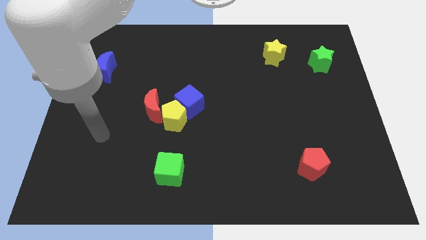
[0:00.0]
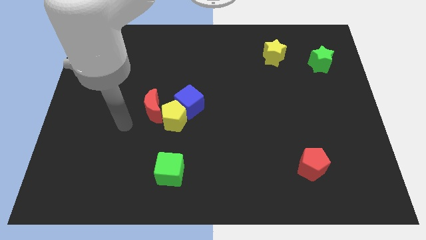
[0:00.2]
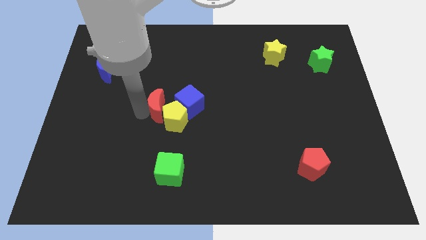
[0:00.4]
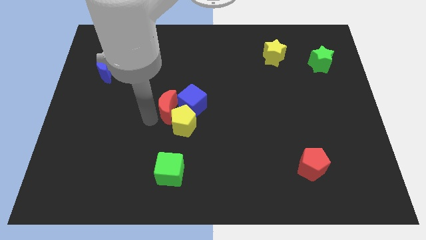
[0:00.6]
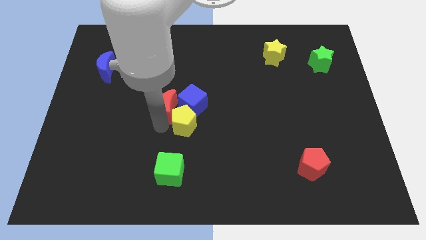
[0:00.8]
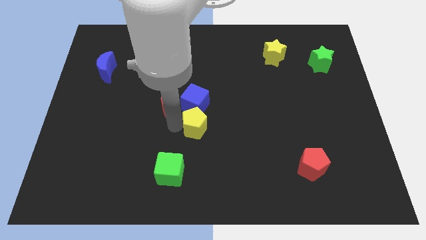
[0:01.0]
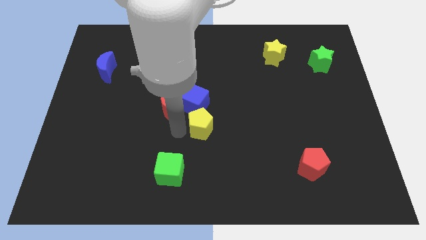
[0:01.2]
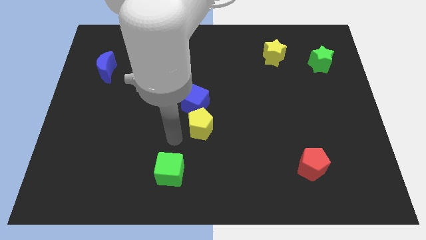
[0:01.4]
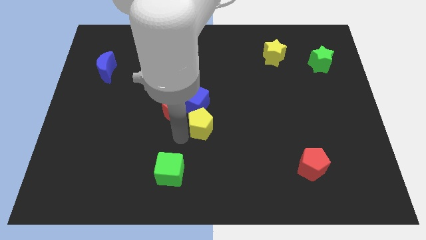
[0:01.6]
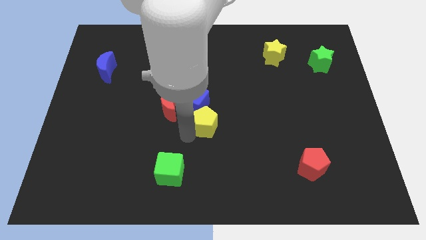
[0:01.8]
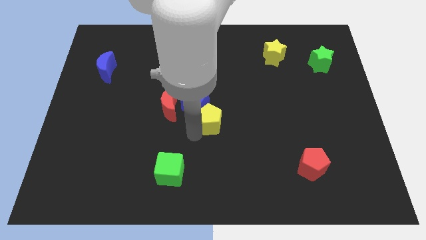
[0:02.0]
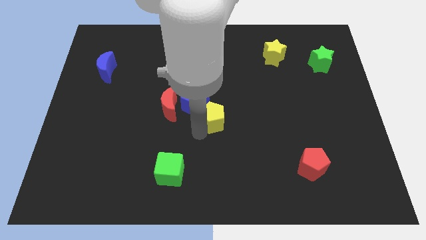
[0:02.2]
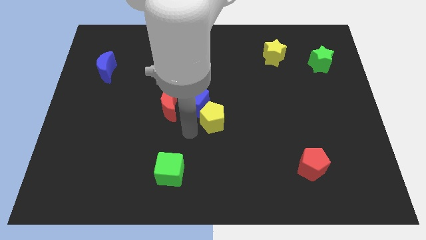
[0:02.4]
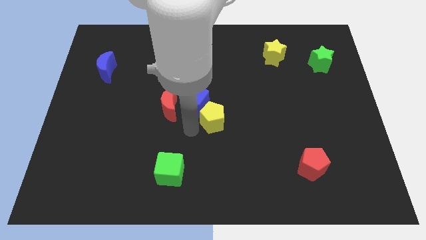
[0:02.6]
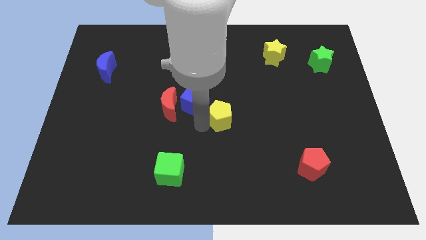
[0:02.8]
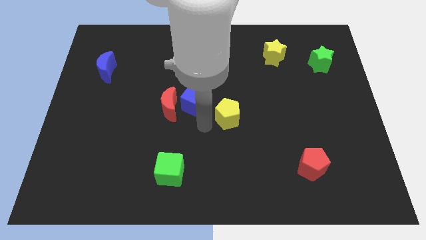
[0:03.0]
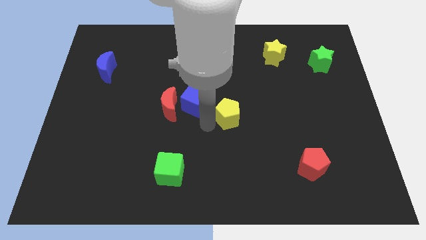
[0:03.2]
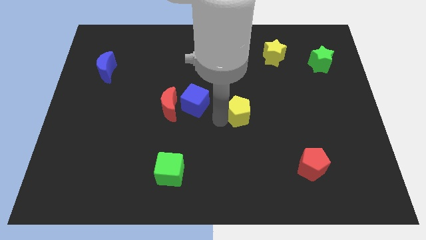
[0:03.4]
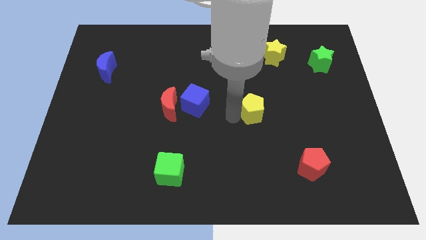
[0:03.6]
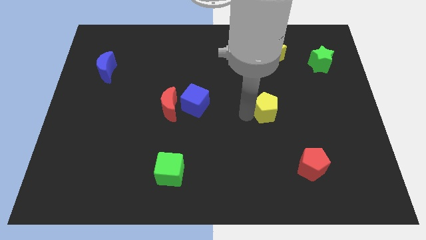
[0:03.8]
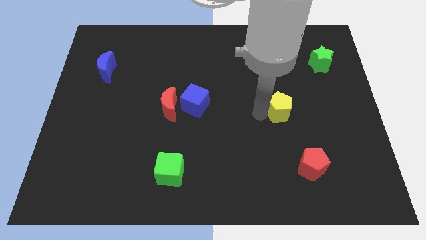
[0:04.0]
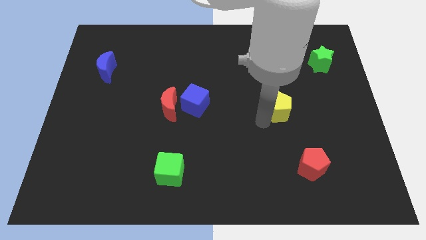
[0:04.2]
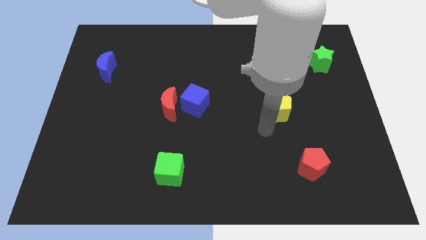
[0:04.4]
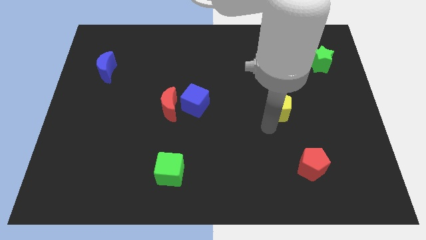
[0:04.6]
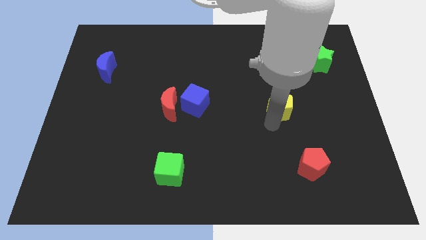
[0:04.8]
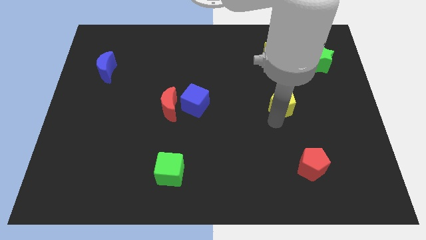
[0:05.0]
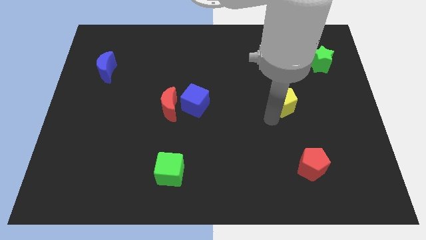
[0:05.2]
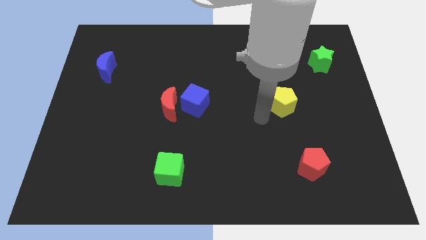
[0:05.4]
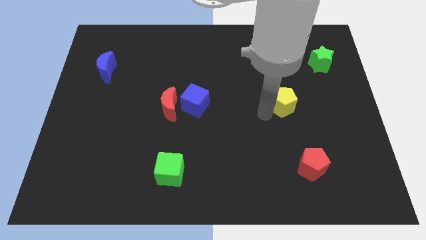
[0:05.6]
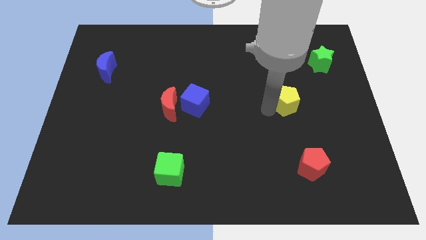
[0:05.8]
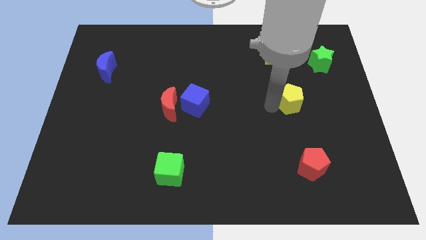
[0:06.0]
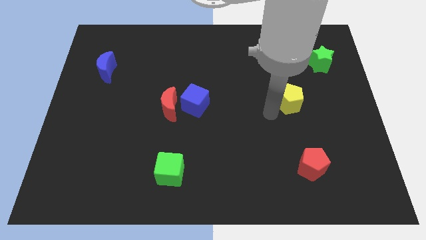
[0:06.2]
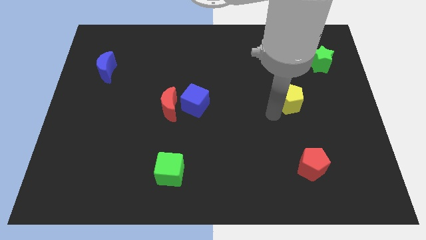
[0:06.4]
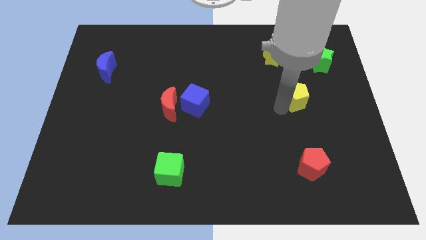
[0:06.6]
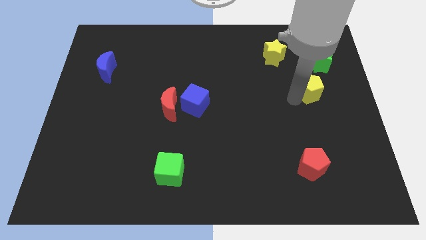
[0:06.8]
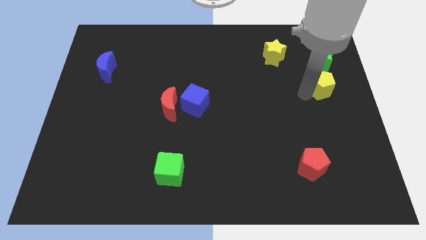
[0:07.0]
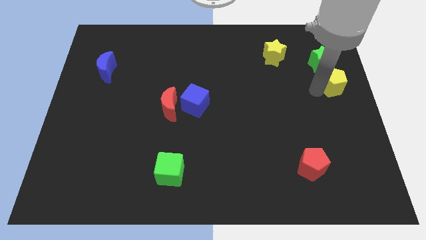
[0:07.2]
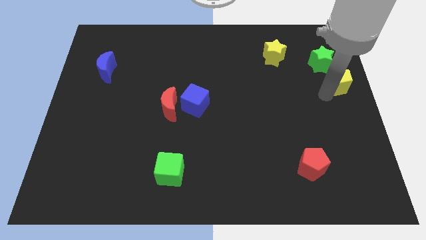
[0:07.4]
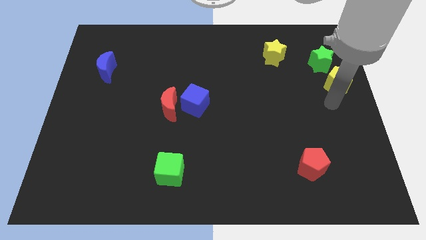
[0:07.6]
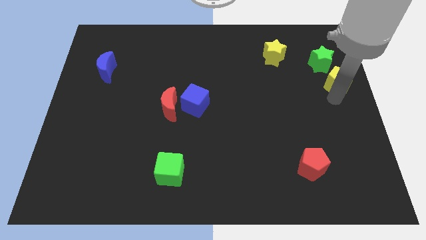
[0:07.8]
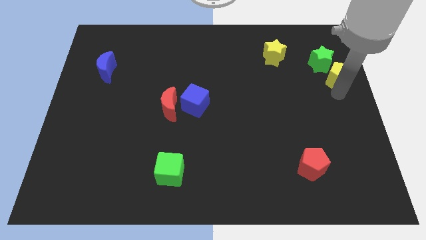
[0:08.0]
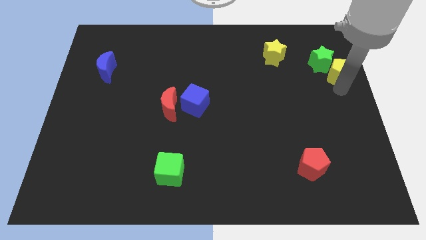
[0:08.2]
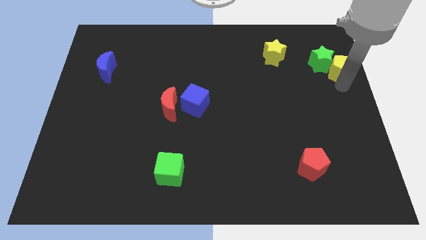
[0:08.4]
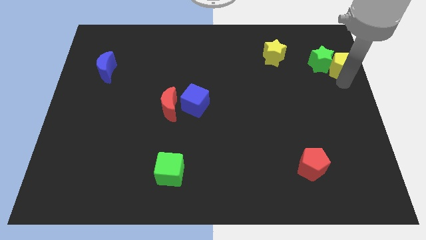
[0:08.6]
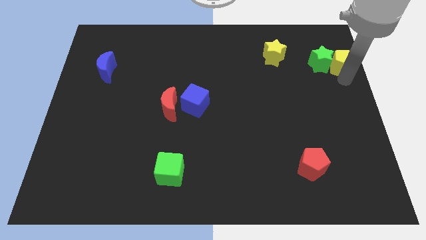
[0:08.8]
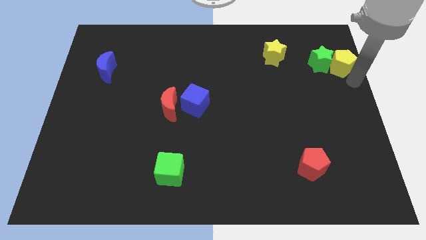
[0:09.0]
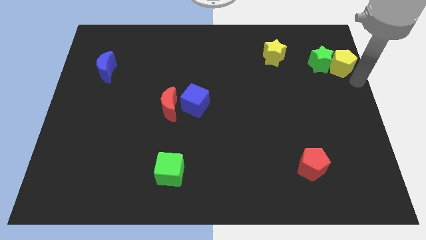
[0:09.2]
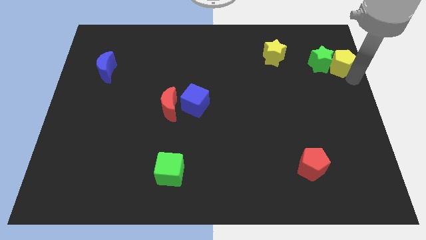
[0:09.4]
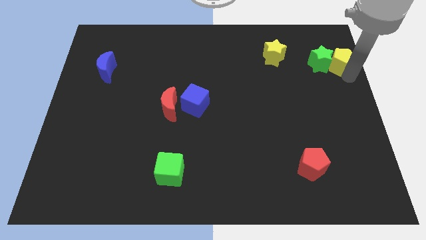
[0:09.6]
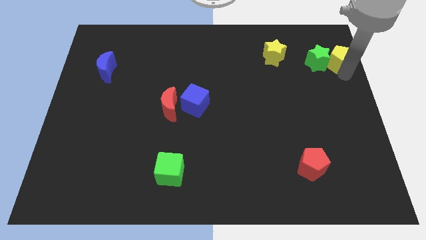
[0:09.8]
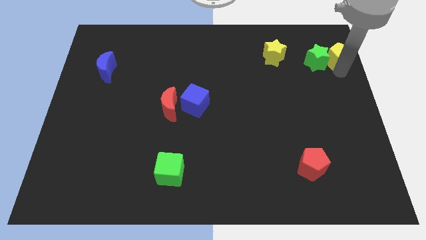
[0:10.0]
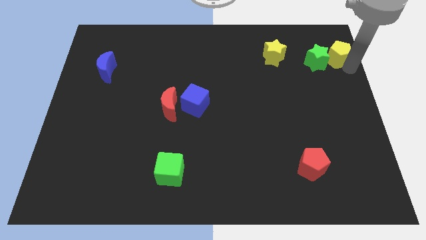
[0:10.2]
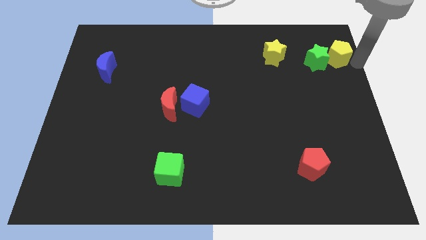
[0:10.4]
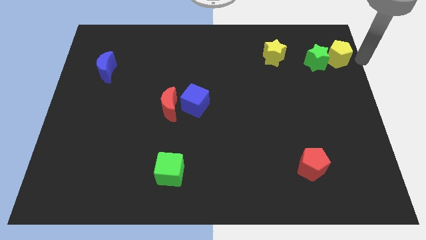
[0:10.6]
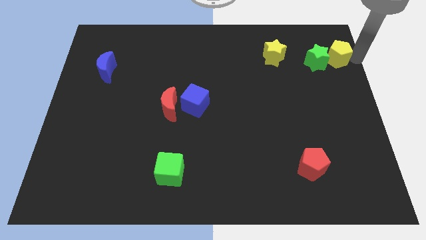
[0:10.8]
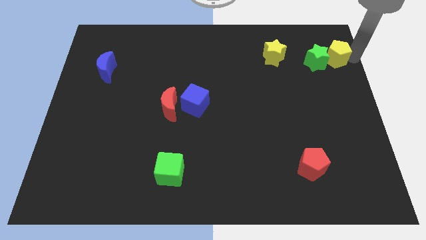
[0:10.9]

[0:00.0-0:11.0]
move the yellow pentagon to the right of the yellow star

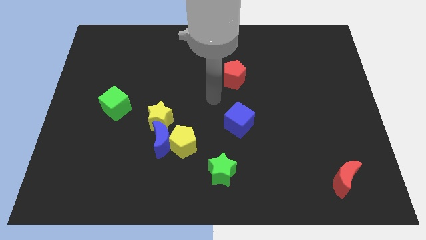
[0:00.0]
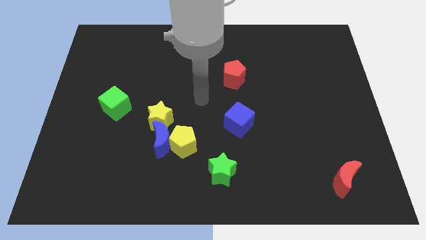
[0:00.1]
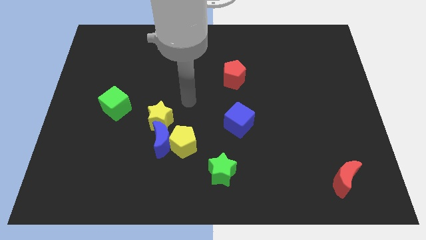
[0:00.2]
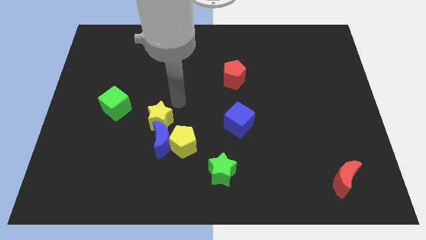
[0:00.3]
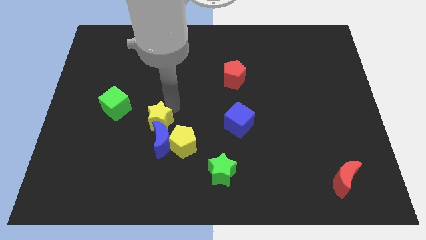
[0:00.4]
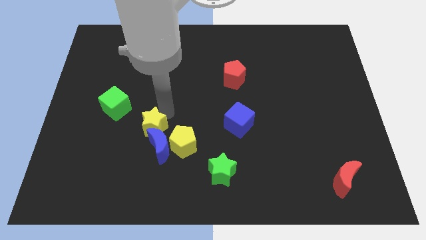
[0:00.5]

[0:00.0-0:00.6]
move the yellow star just left of the yellow pentagon

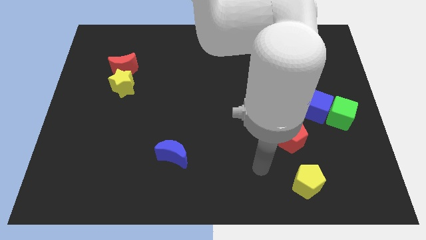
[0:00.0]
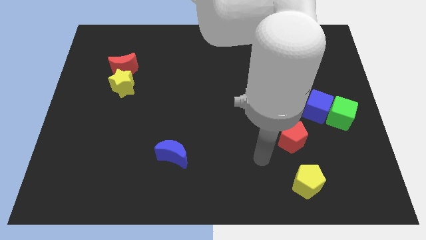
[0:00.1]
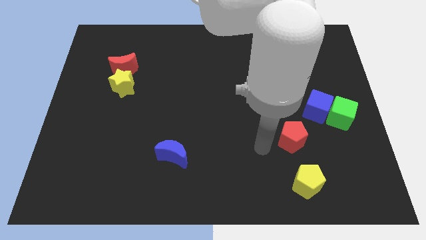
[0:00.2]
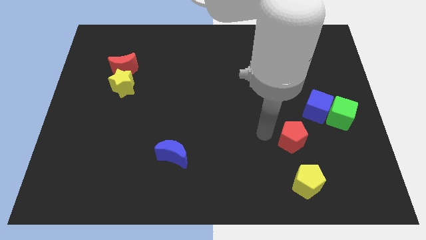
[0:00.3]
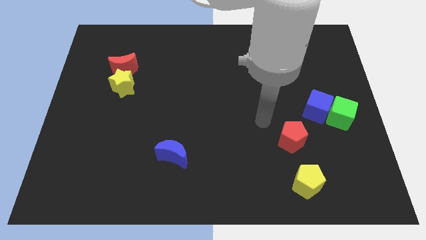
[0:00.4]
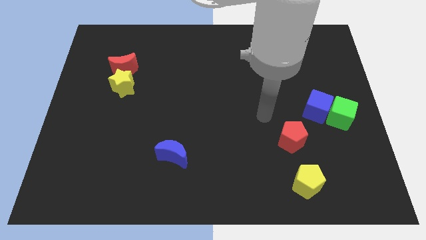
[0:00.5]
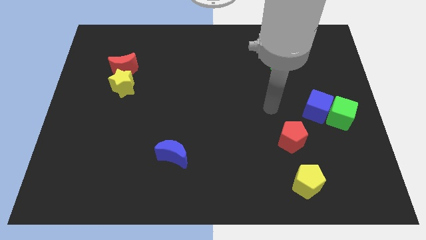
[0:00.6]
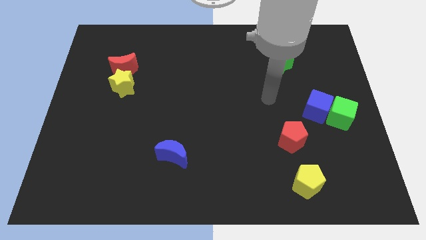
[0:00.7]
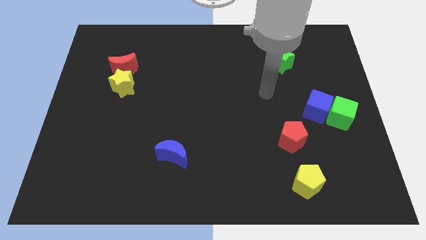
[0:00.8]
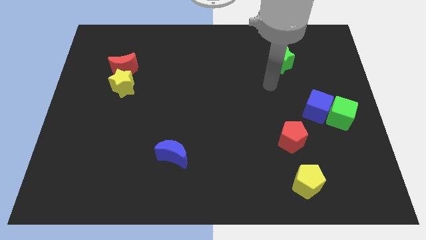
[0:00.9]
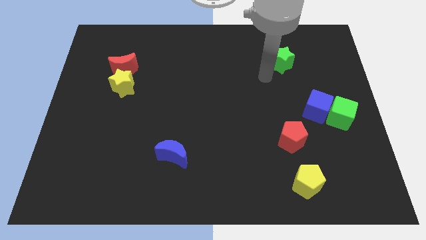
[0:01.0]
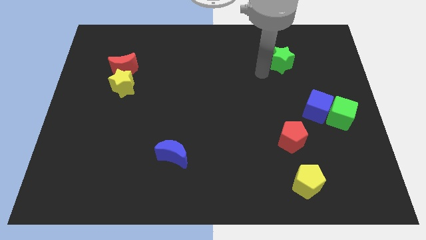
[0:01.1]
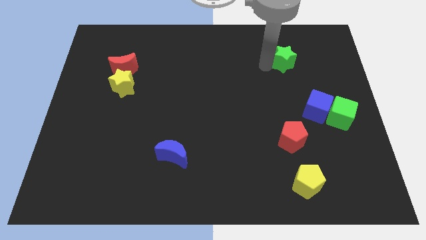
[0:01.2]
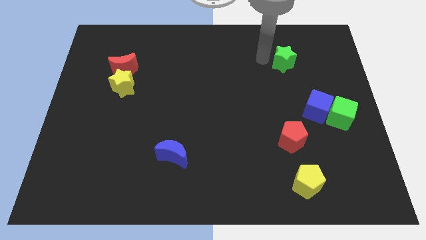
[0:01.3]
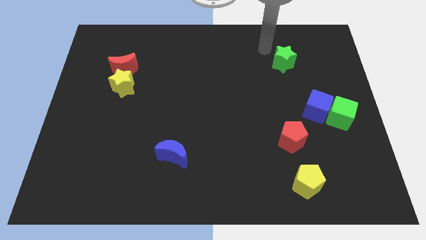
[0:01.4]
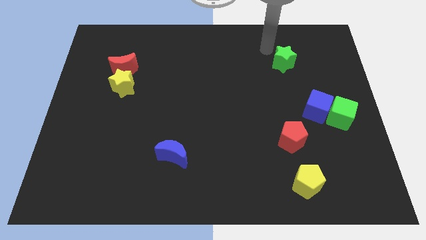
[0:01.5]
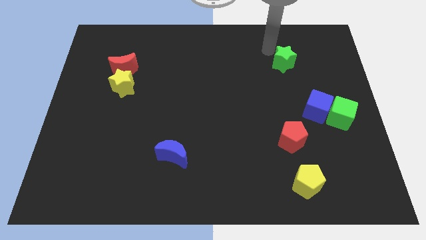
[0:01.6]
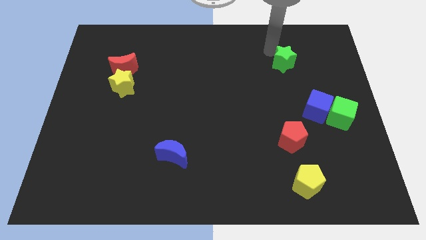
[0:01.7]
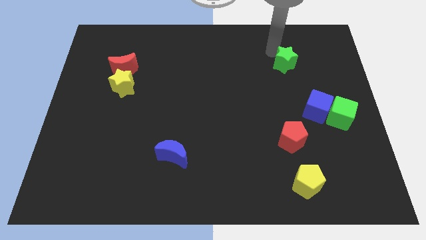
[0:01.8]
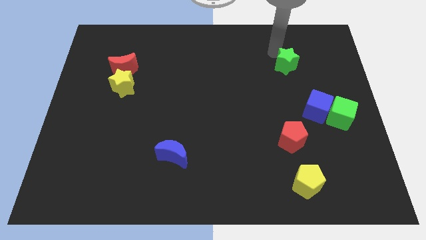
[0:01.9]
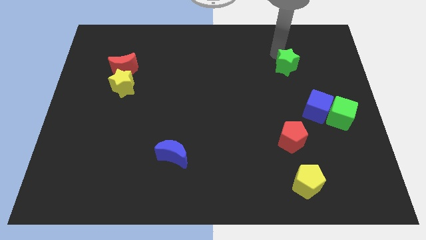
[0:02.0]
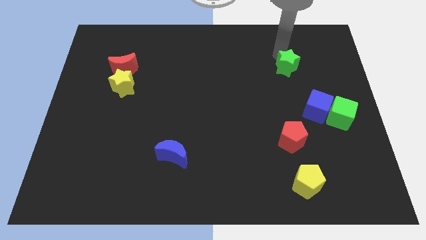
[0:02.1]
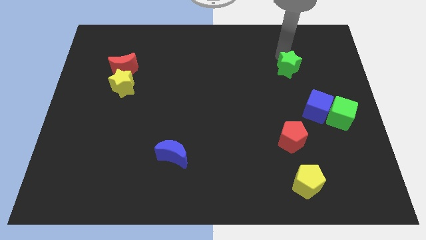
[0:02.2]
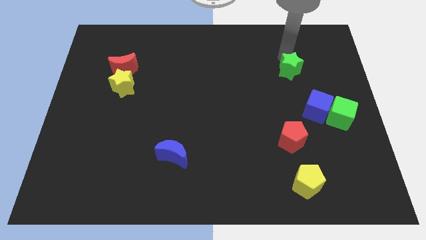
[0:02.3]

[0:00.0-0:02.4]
slide the green star above the blue cube
